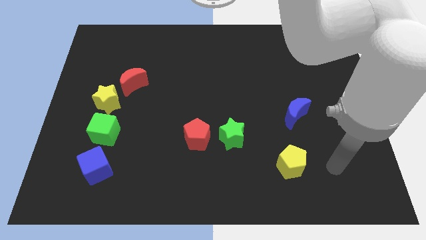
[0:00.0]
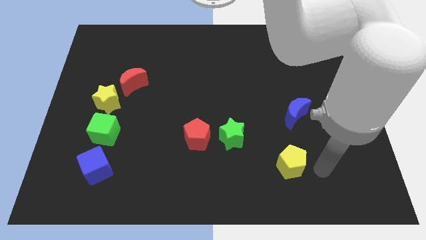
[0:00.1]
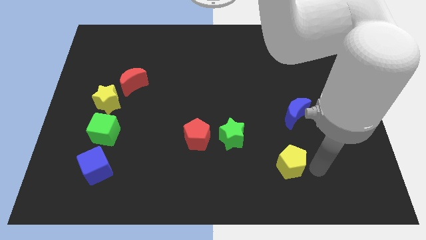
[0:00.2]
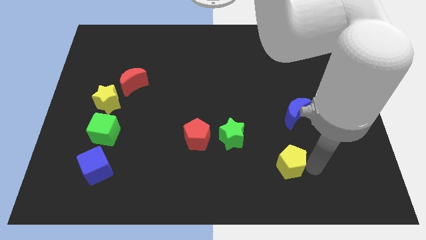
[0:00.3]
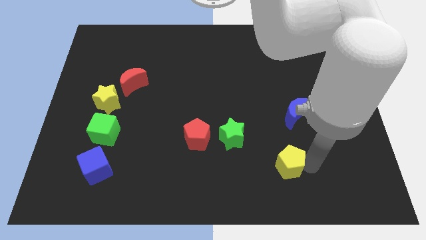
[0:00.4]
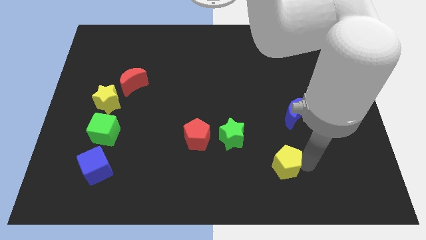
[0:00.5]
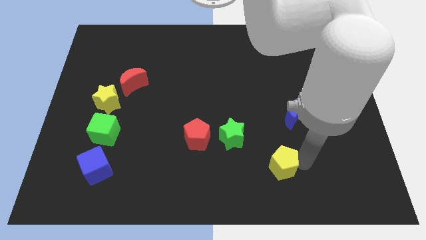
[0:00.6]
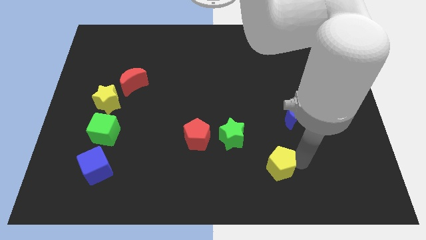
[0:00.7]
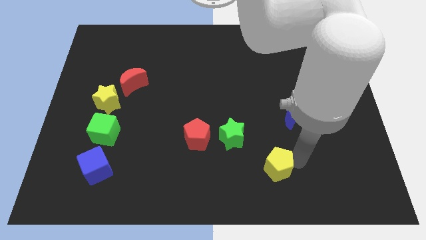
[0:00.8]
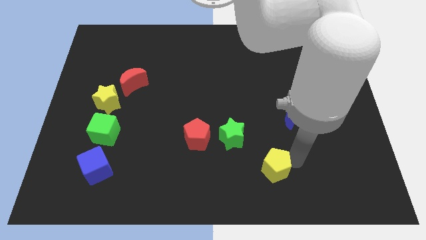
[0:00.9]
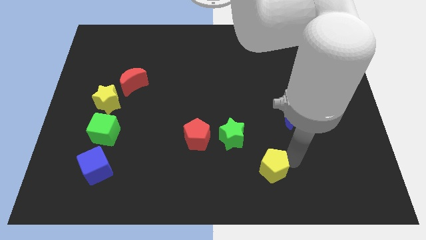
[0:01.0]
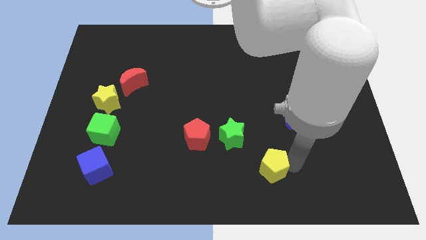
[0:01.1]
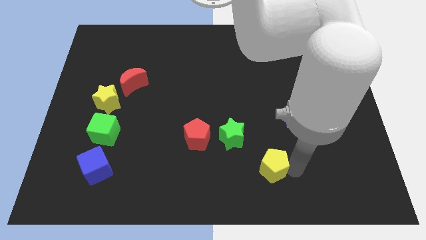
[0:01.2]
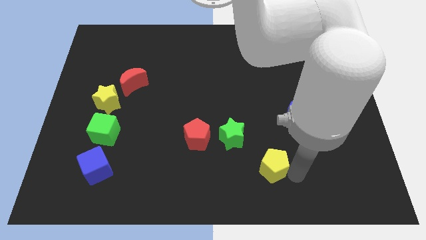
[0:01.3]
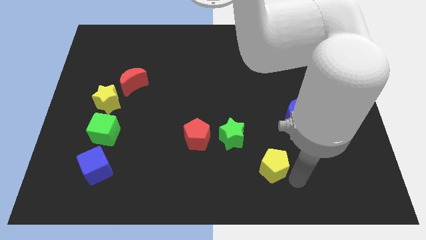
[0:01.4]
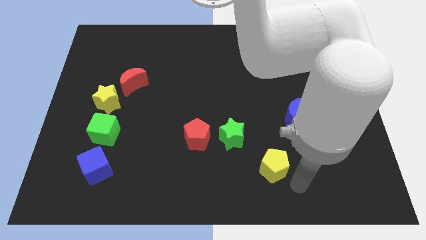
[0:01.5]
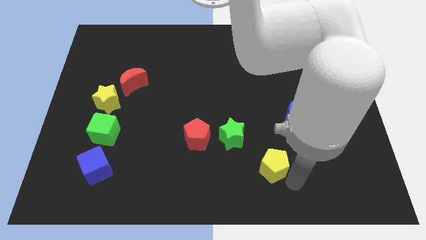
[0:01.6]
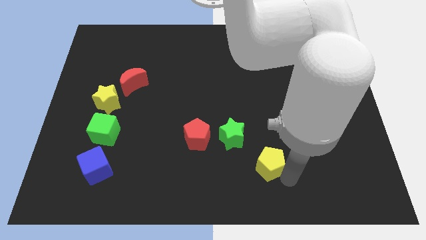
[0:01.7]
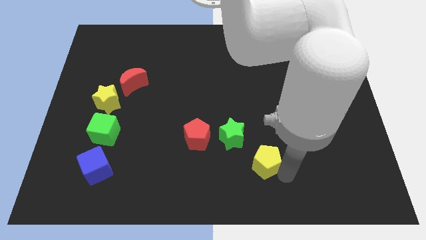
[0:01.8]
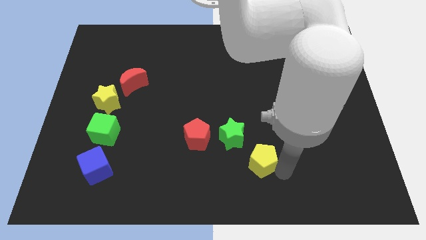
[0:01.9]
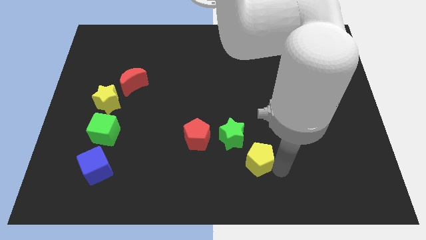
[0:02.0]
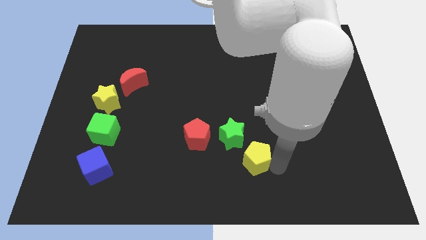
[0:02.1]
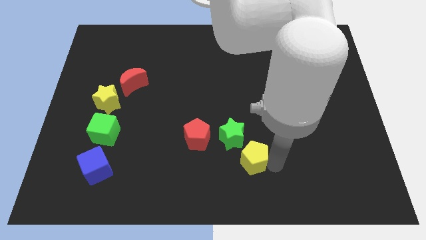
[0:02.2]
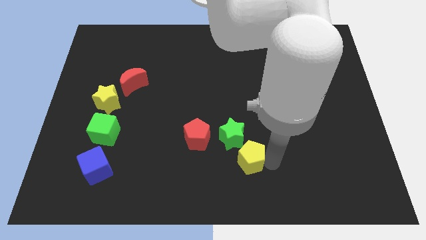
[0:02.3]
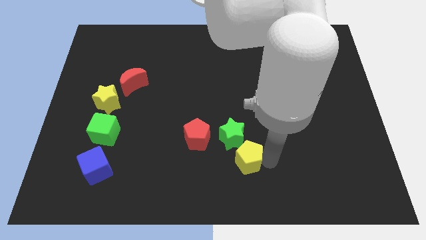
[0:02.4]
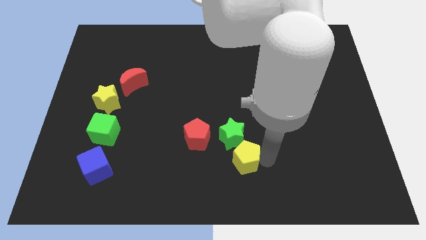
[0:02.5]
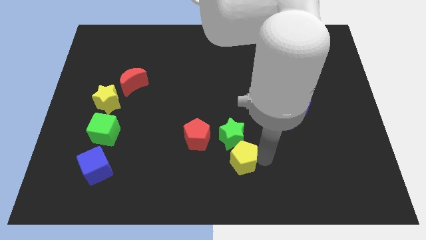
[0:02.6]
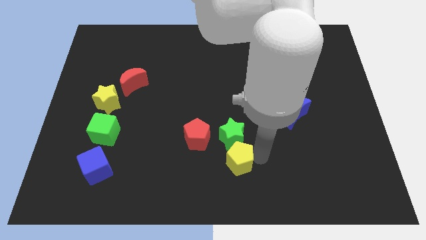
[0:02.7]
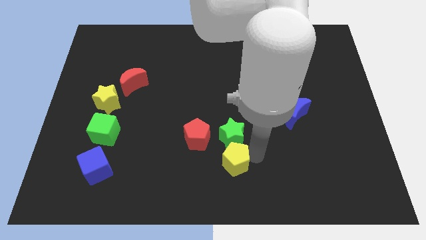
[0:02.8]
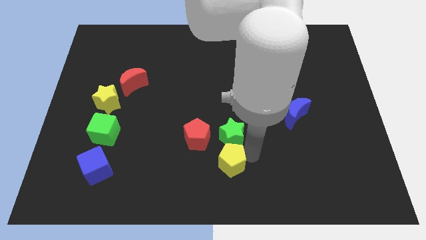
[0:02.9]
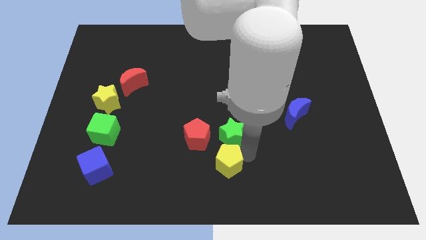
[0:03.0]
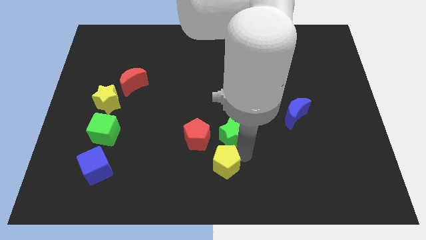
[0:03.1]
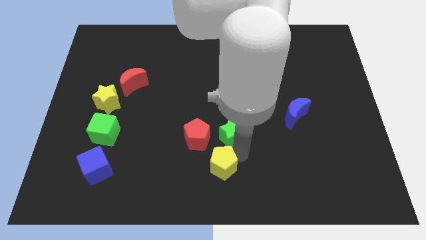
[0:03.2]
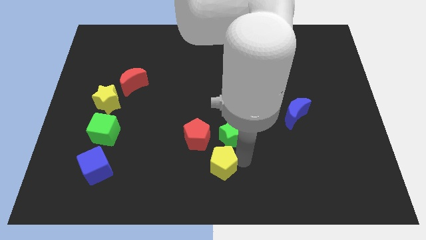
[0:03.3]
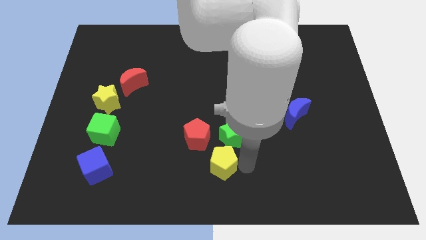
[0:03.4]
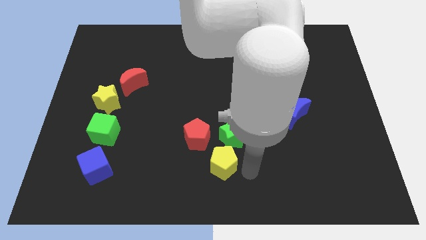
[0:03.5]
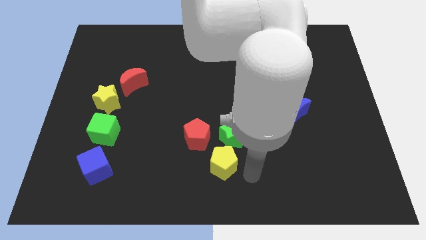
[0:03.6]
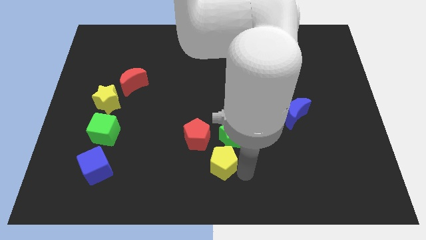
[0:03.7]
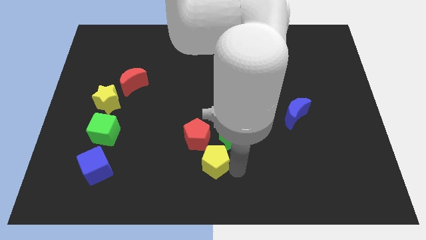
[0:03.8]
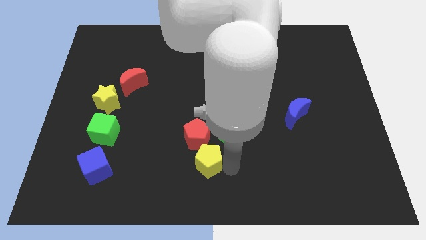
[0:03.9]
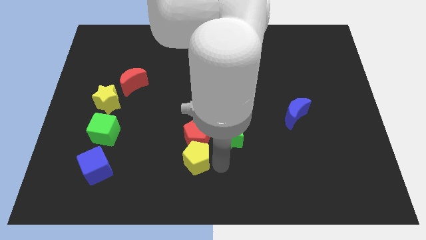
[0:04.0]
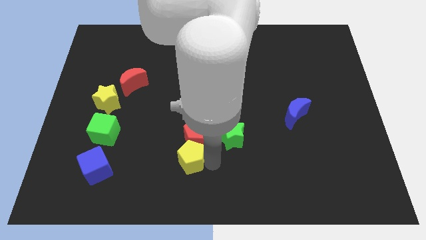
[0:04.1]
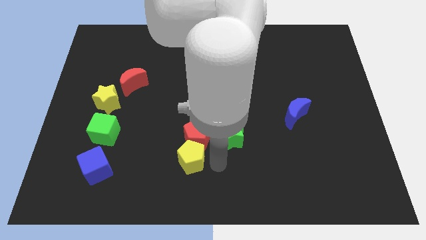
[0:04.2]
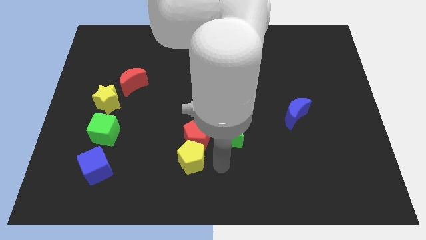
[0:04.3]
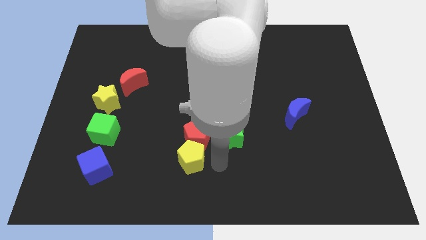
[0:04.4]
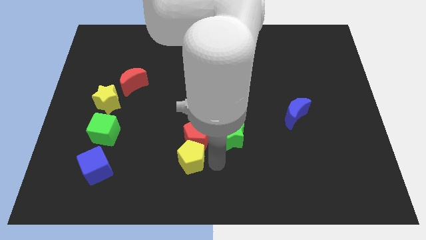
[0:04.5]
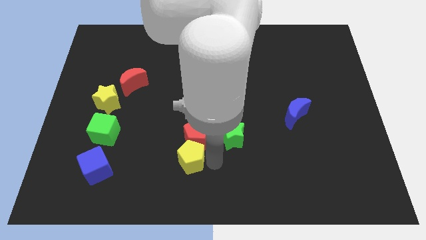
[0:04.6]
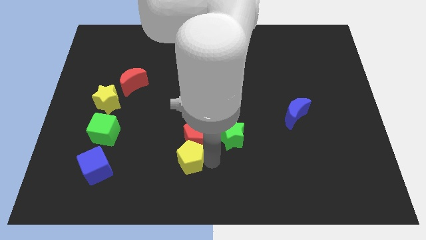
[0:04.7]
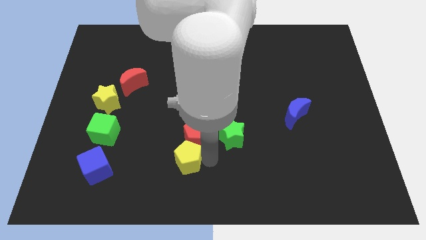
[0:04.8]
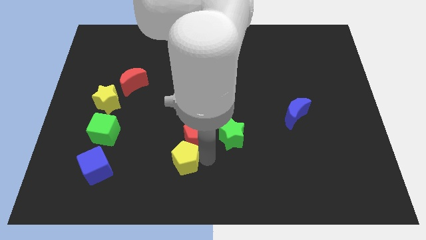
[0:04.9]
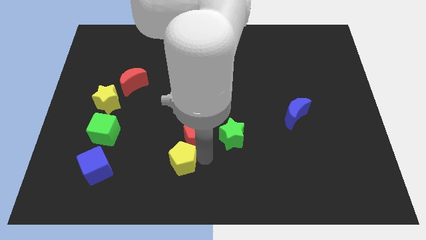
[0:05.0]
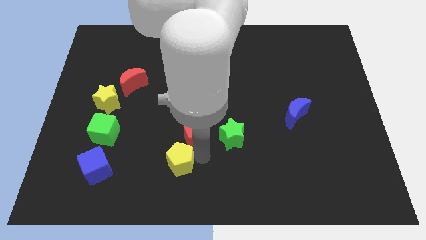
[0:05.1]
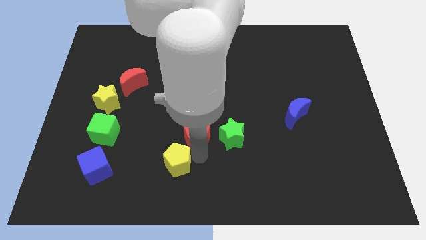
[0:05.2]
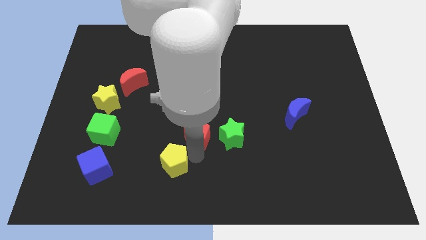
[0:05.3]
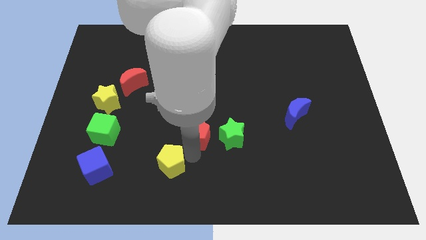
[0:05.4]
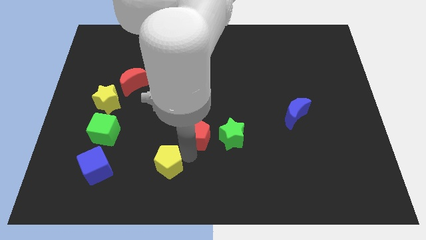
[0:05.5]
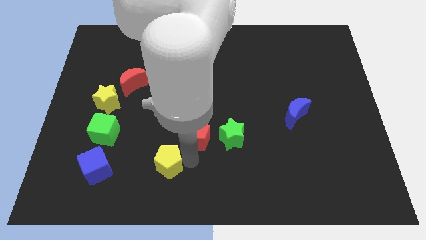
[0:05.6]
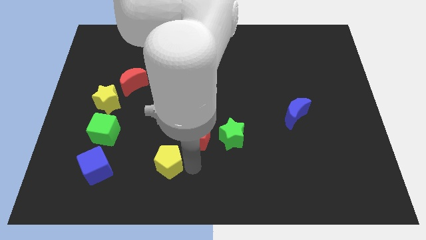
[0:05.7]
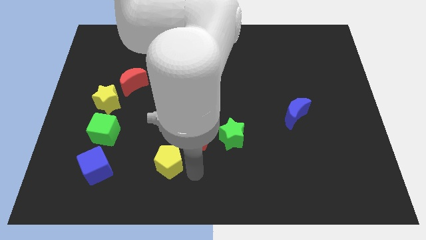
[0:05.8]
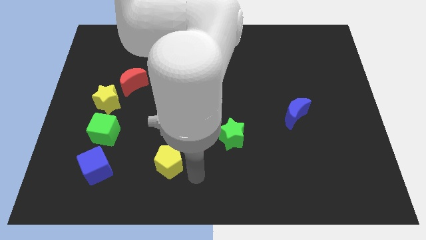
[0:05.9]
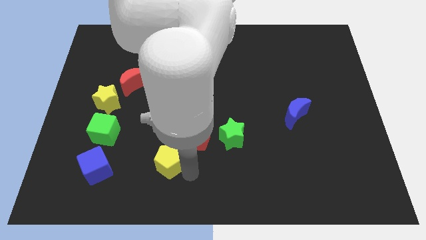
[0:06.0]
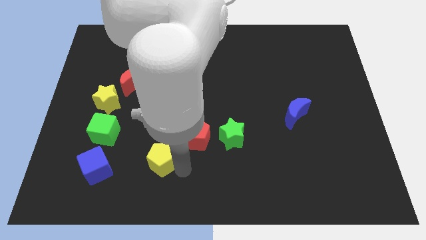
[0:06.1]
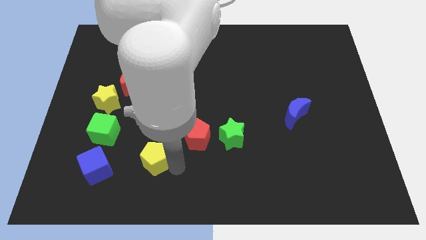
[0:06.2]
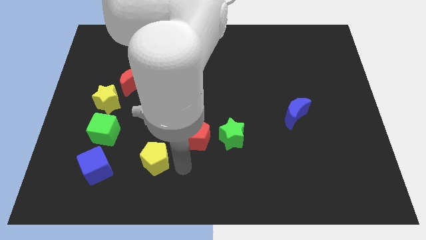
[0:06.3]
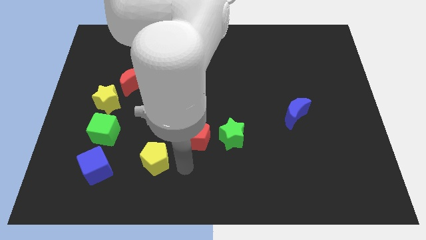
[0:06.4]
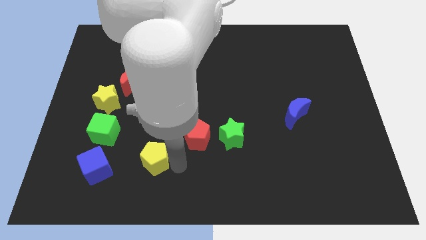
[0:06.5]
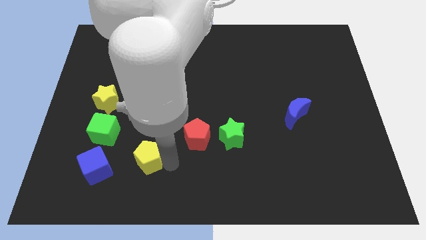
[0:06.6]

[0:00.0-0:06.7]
slide the yellow pentagon diagonally down and to the right of the green cube

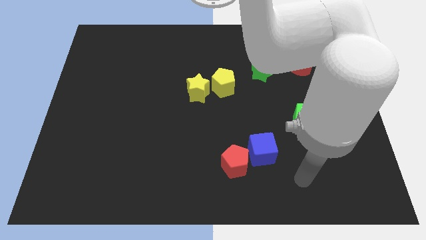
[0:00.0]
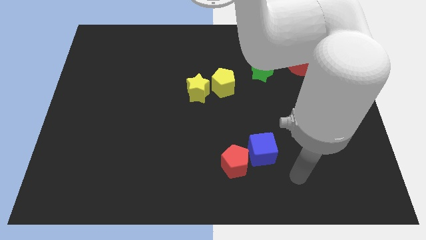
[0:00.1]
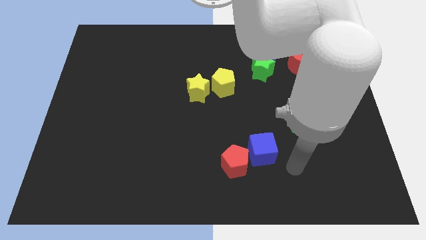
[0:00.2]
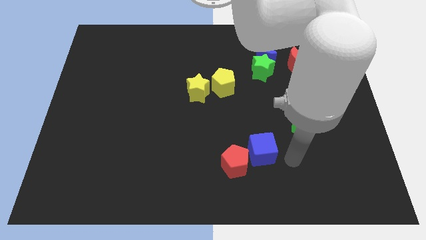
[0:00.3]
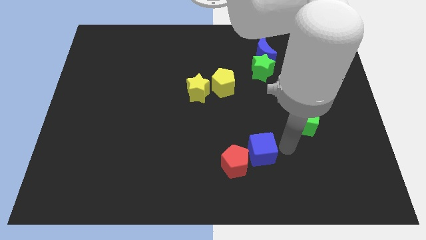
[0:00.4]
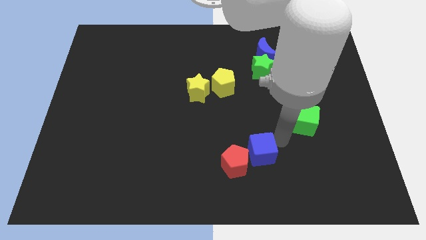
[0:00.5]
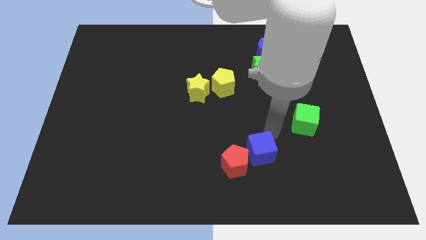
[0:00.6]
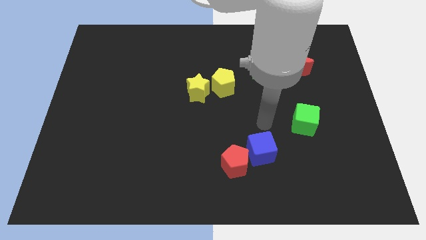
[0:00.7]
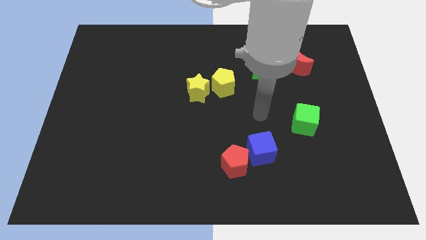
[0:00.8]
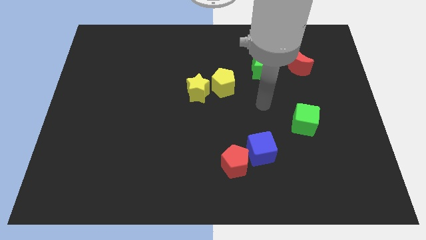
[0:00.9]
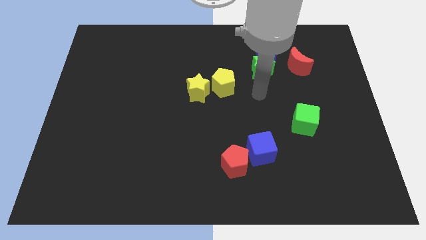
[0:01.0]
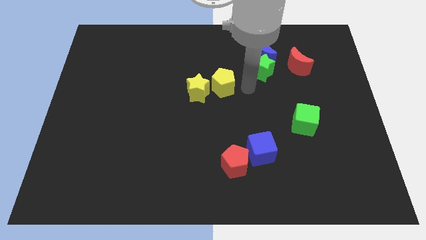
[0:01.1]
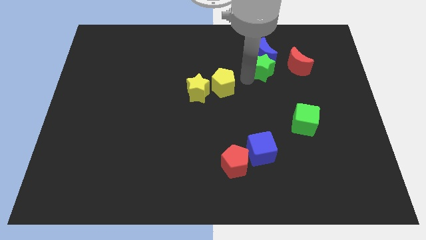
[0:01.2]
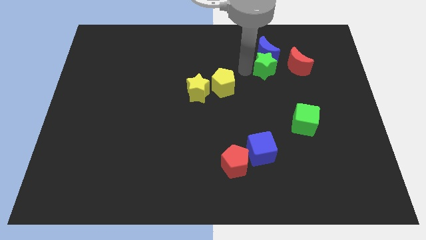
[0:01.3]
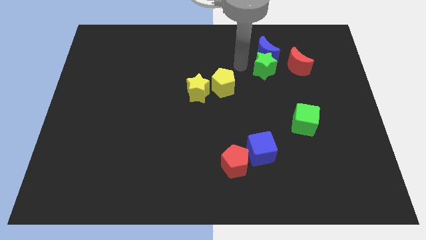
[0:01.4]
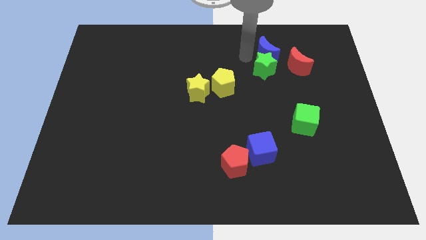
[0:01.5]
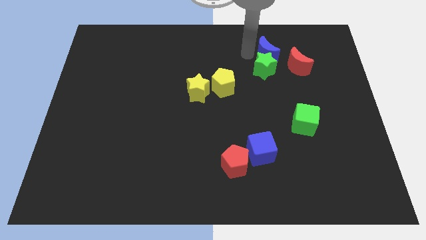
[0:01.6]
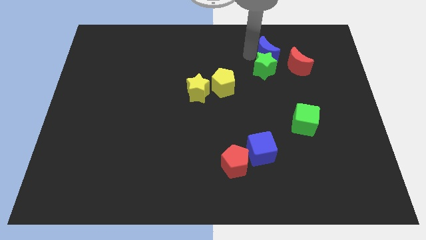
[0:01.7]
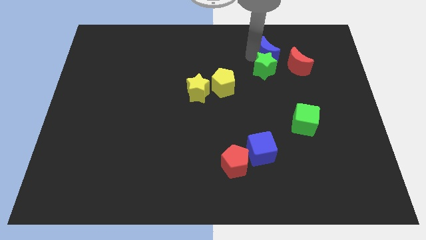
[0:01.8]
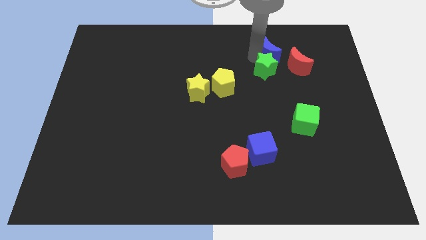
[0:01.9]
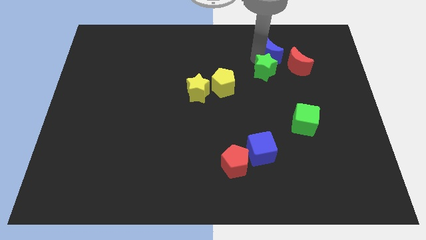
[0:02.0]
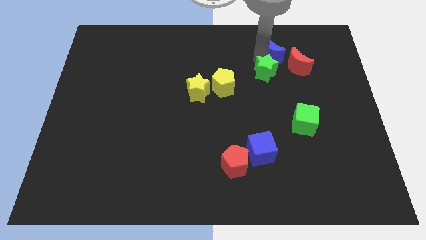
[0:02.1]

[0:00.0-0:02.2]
slide the green star diagonally down and to the left of the red moon
